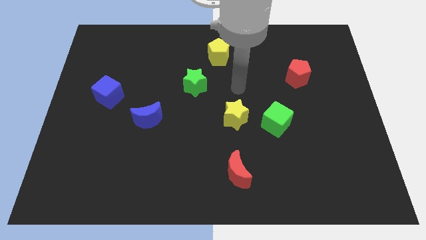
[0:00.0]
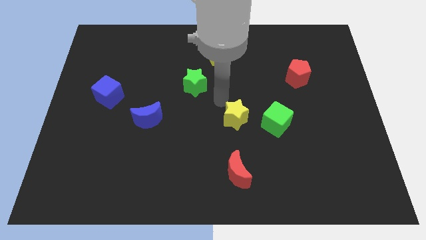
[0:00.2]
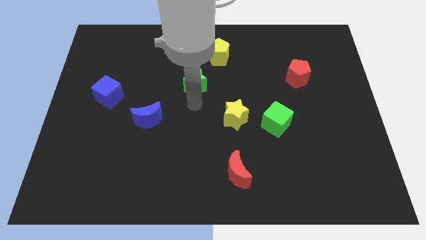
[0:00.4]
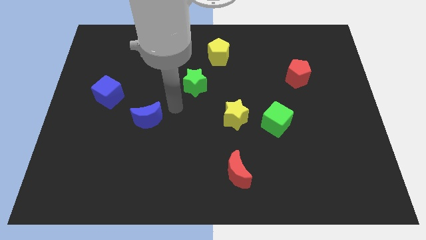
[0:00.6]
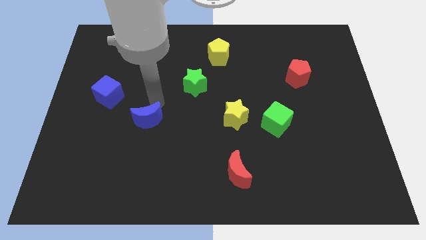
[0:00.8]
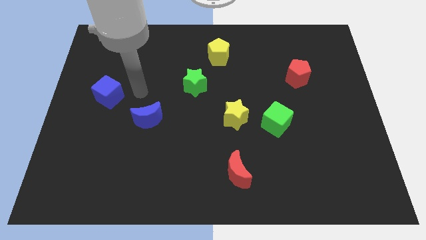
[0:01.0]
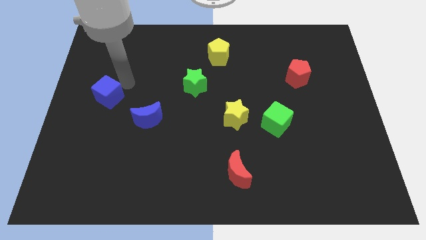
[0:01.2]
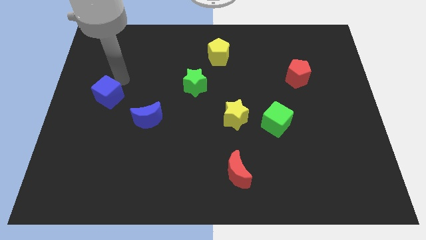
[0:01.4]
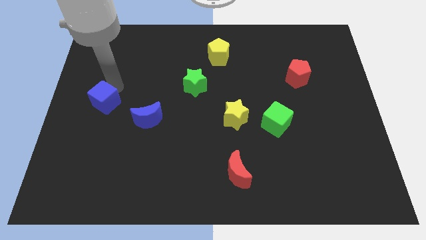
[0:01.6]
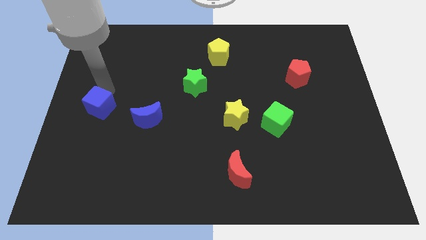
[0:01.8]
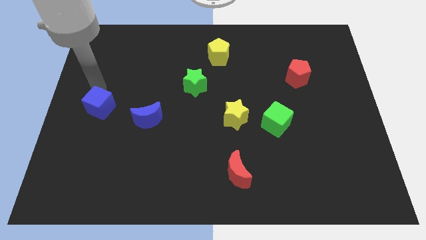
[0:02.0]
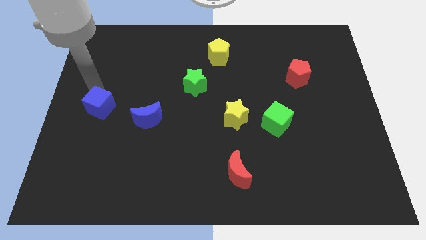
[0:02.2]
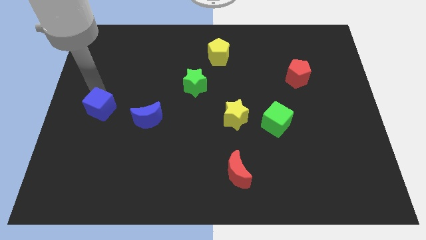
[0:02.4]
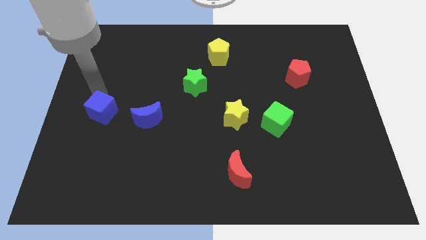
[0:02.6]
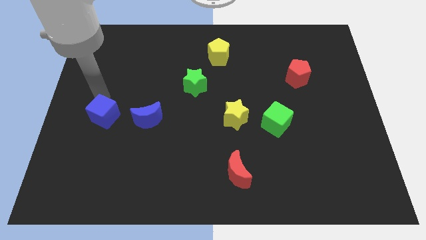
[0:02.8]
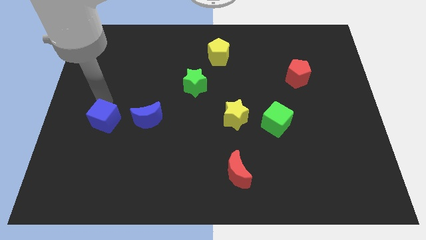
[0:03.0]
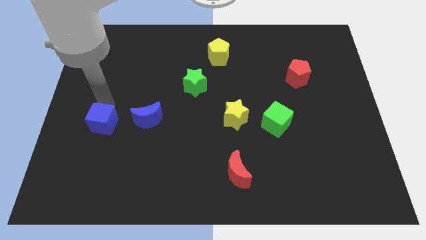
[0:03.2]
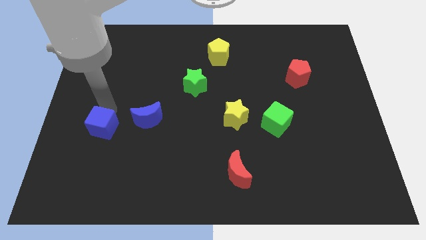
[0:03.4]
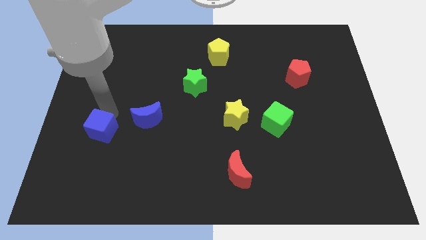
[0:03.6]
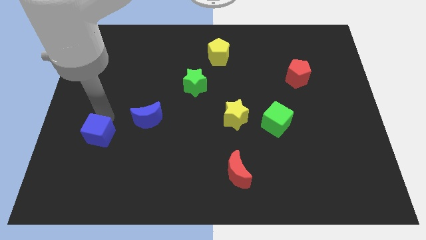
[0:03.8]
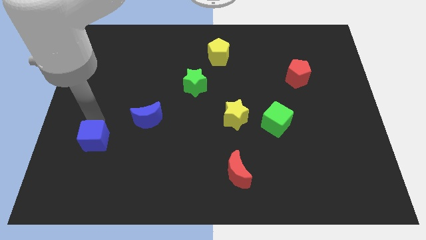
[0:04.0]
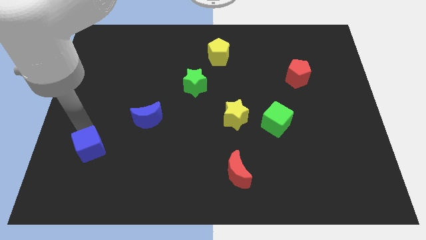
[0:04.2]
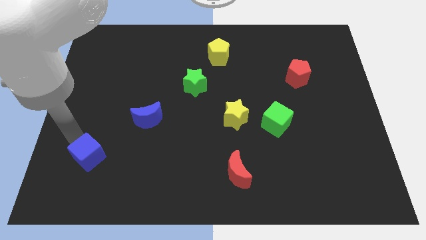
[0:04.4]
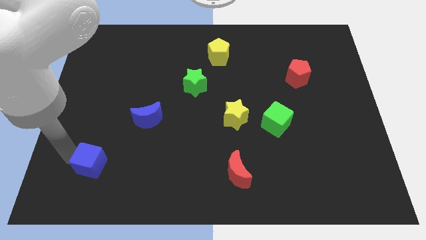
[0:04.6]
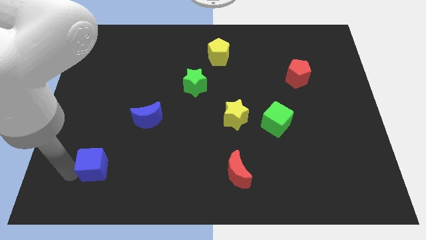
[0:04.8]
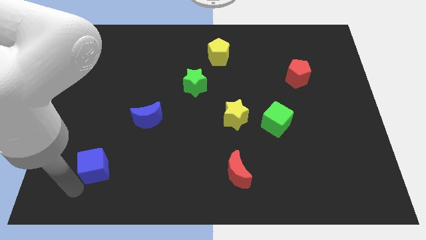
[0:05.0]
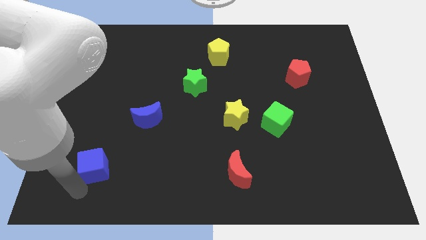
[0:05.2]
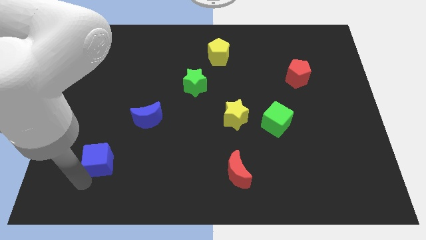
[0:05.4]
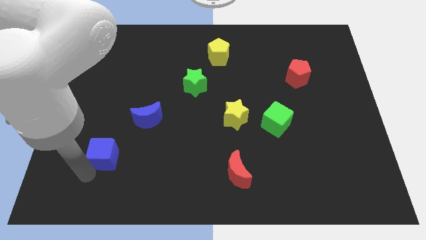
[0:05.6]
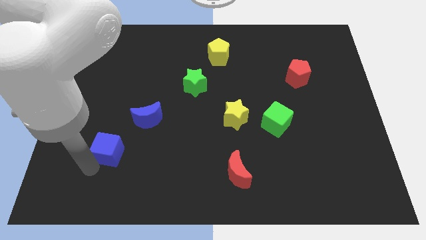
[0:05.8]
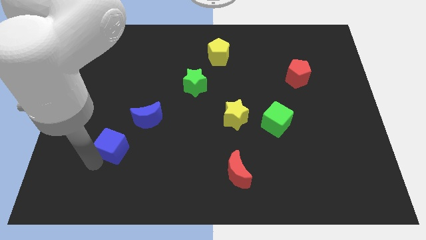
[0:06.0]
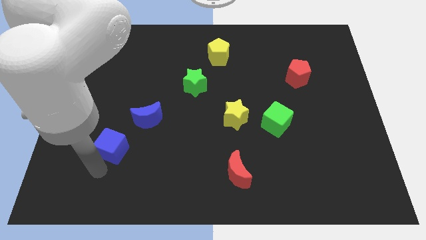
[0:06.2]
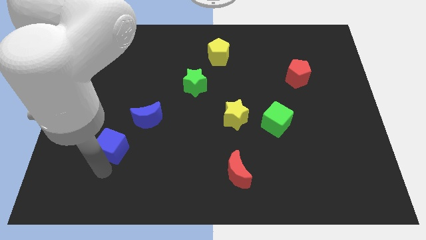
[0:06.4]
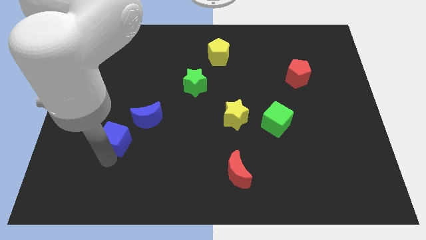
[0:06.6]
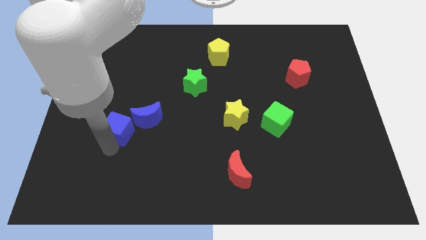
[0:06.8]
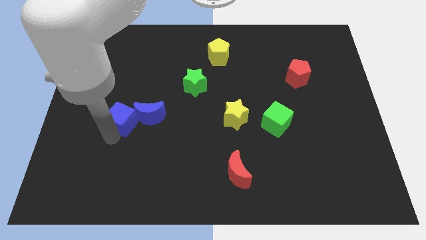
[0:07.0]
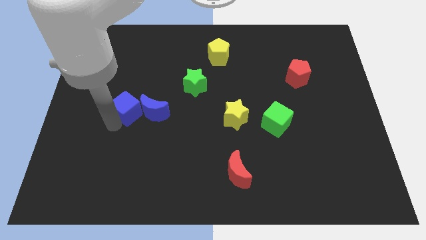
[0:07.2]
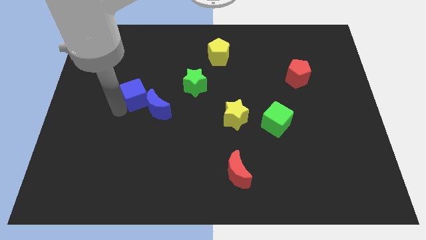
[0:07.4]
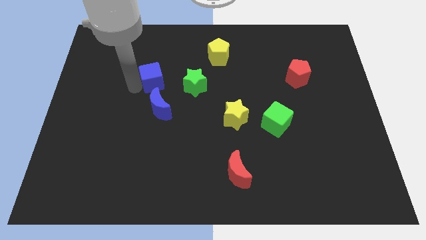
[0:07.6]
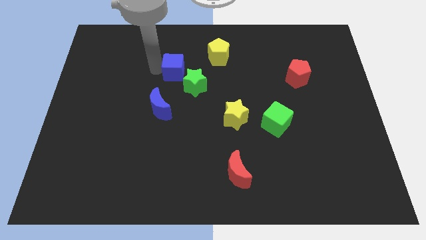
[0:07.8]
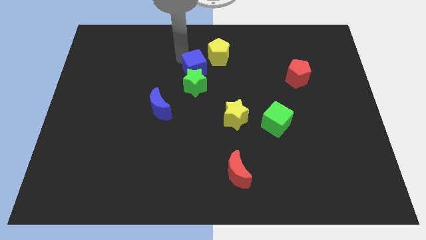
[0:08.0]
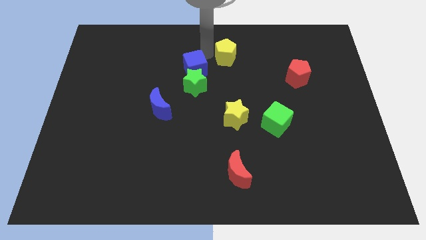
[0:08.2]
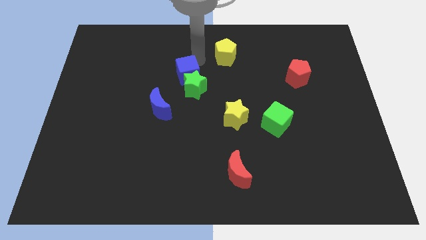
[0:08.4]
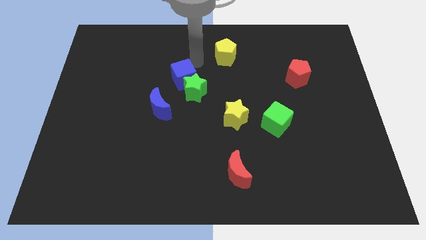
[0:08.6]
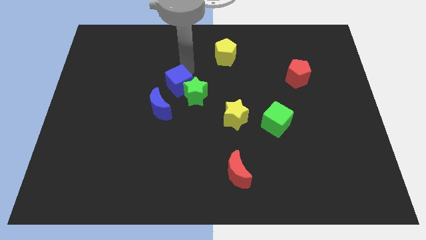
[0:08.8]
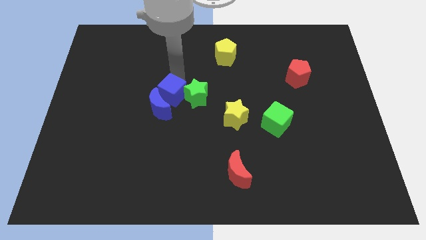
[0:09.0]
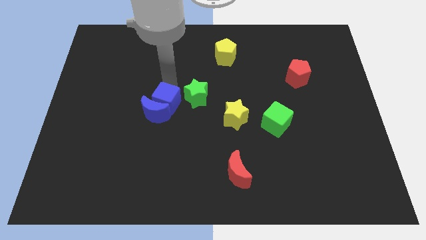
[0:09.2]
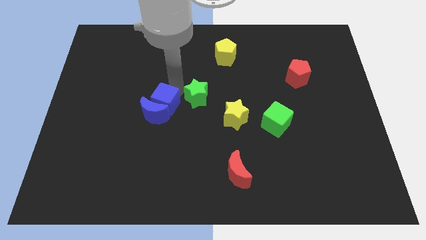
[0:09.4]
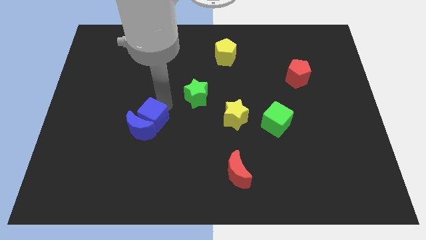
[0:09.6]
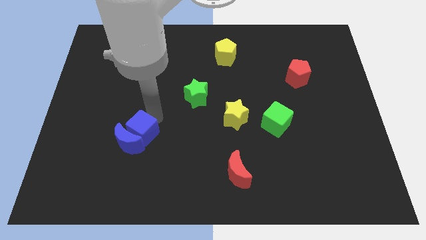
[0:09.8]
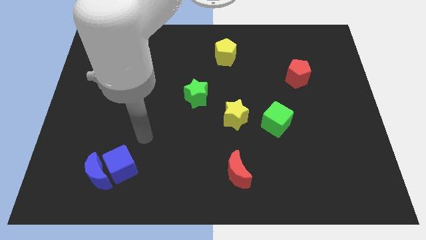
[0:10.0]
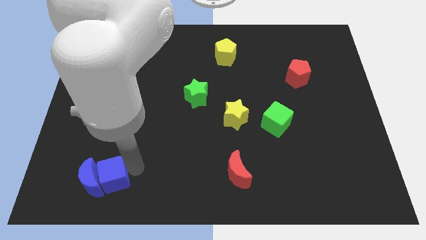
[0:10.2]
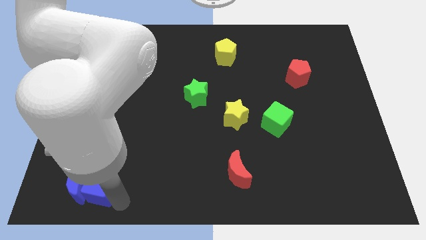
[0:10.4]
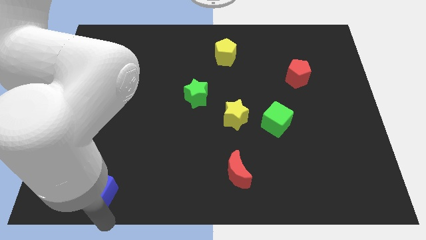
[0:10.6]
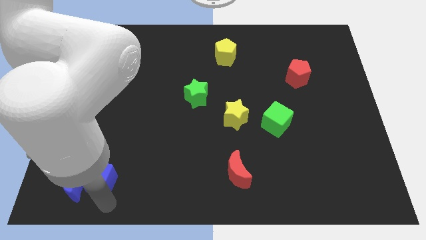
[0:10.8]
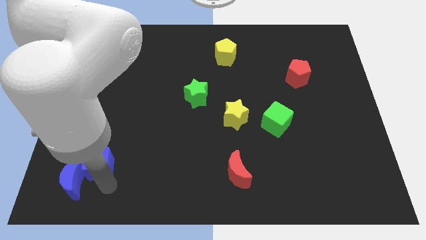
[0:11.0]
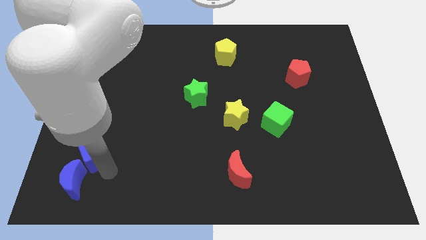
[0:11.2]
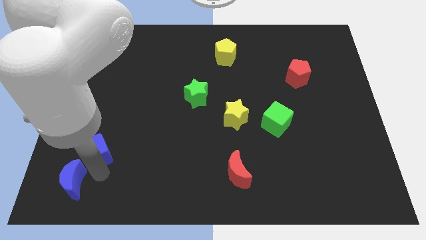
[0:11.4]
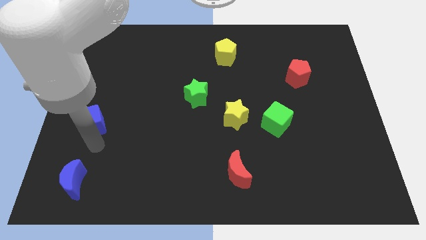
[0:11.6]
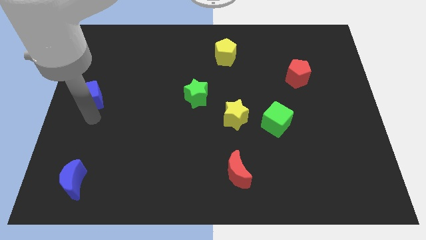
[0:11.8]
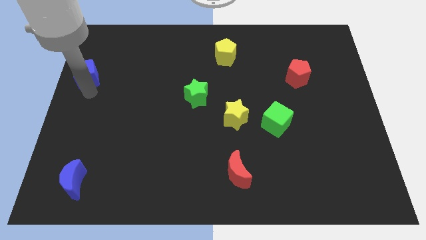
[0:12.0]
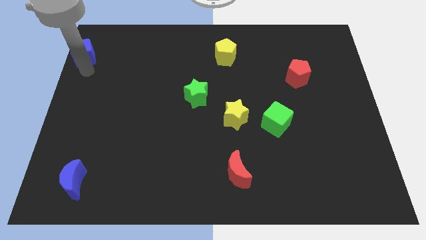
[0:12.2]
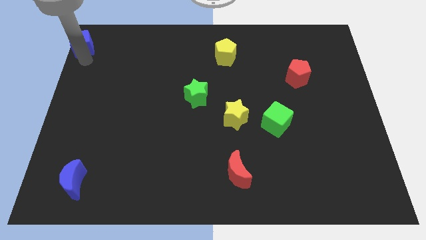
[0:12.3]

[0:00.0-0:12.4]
slide the blue cube to the top left corner
